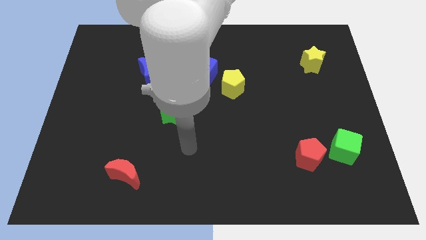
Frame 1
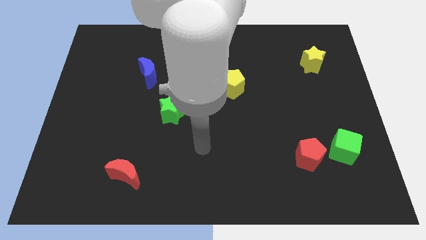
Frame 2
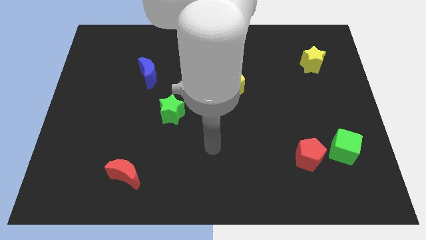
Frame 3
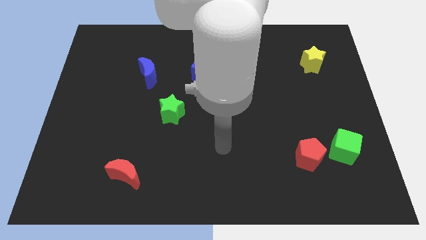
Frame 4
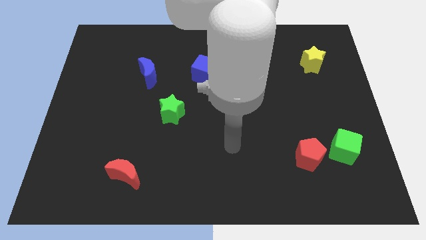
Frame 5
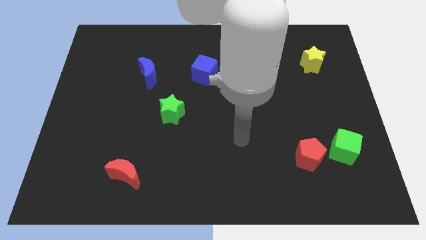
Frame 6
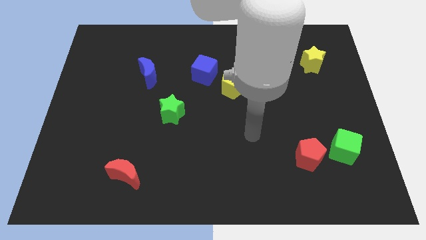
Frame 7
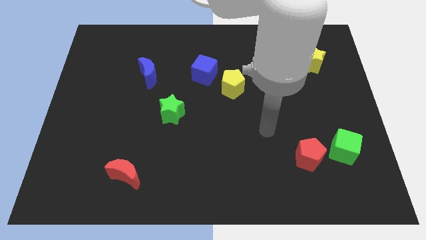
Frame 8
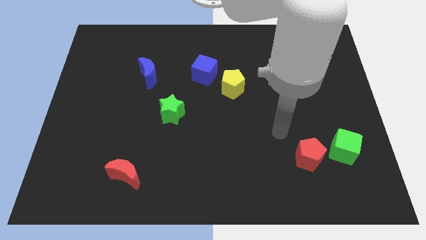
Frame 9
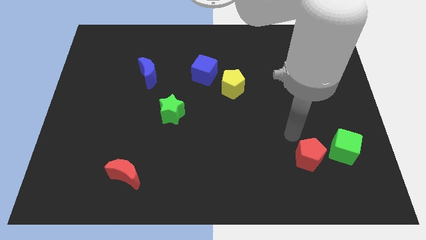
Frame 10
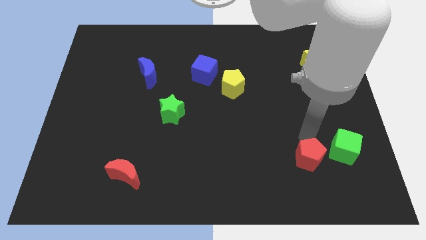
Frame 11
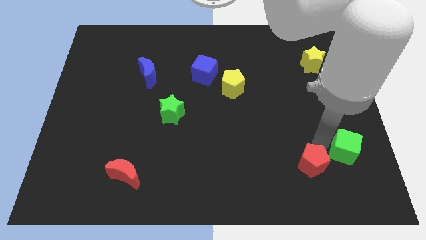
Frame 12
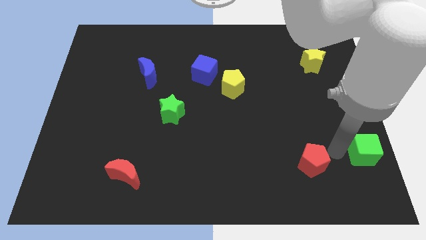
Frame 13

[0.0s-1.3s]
separate the red pentagon from the green cube

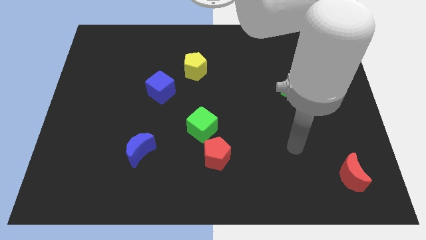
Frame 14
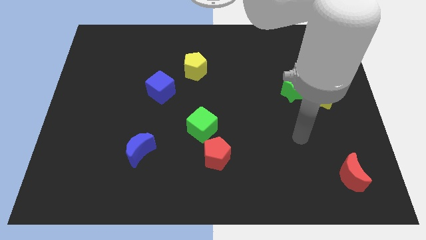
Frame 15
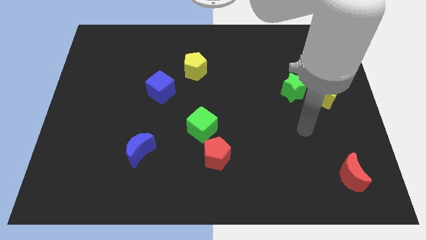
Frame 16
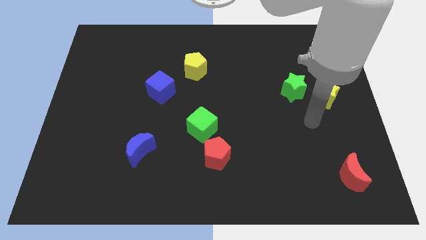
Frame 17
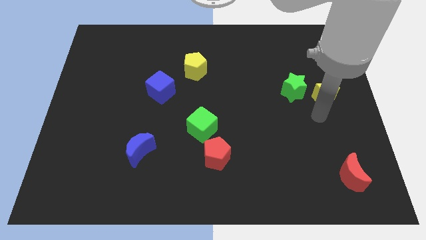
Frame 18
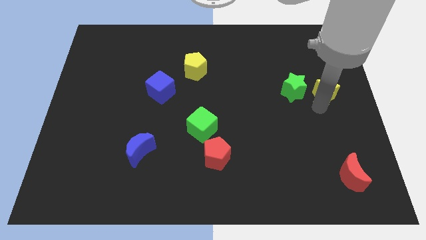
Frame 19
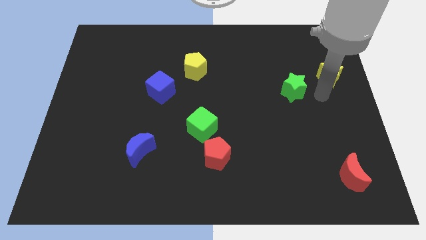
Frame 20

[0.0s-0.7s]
separate the green star from the yellow star

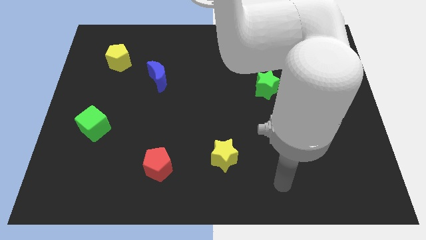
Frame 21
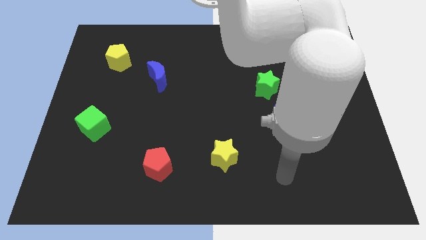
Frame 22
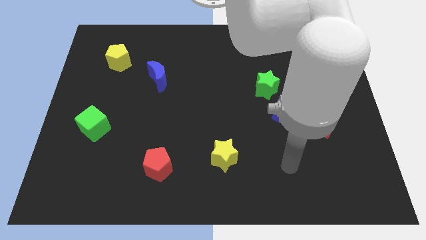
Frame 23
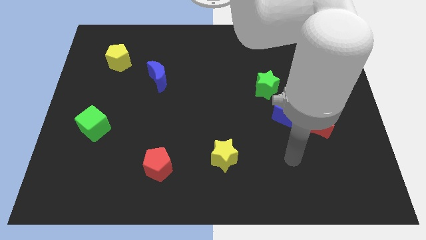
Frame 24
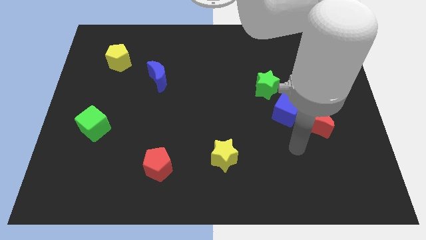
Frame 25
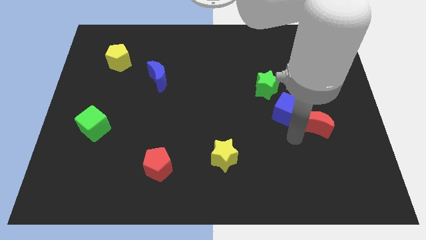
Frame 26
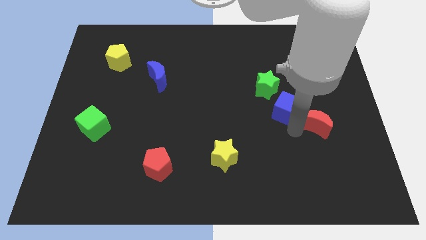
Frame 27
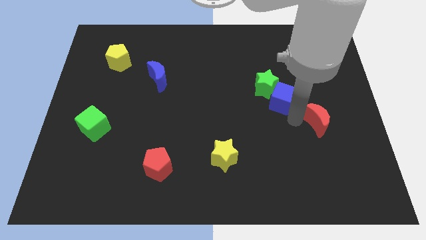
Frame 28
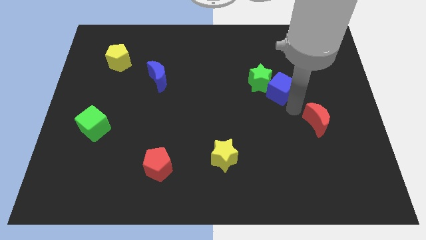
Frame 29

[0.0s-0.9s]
move the red moon away from the blue cube

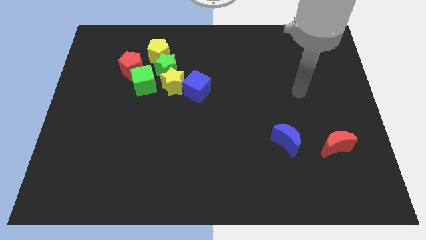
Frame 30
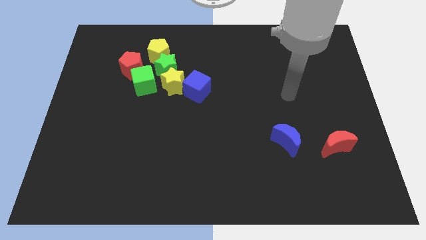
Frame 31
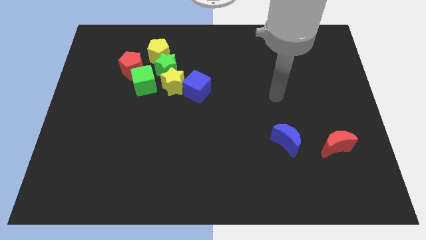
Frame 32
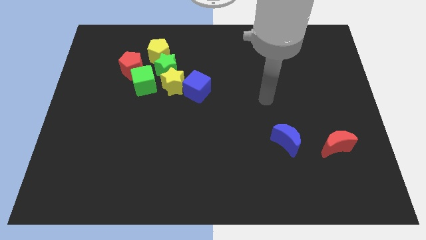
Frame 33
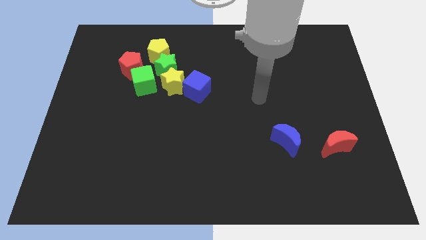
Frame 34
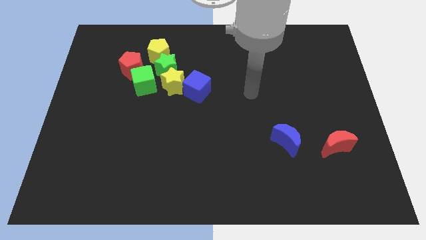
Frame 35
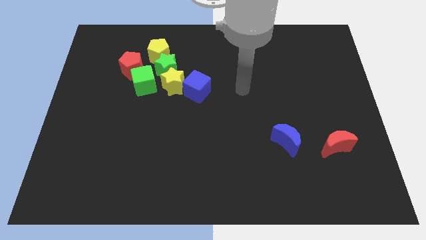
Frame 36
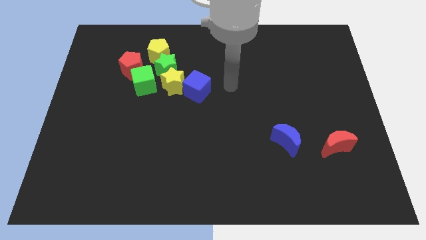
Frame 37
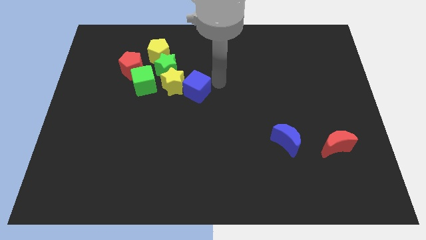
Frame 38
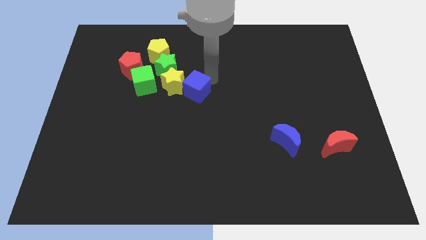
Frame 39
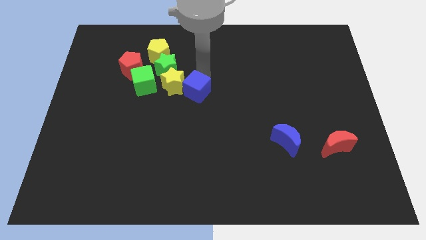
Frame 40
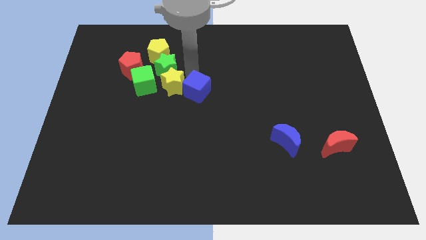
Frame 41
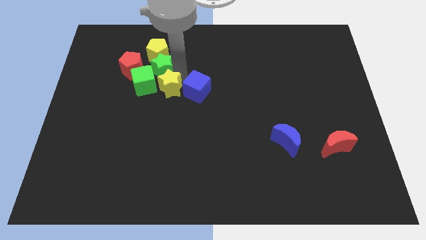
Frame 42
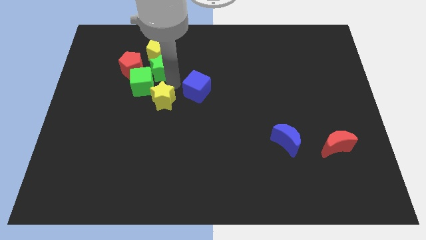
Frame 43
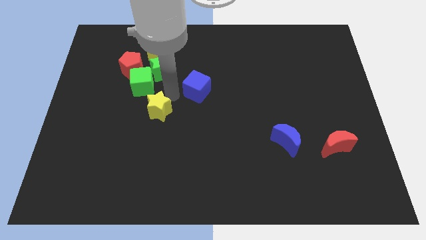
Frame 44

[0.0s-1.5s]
pull the blue cube apart from the yellow star

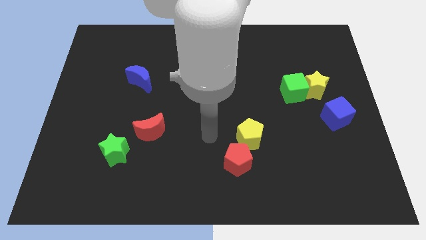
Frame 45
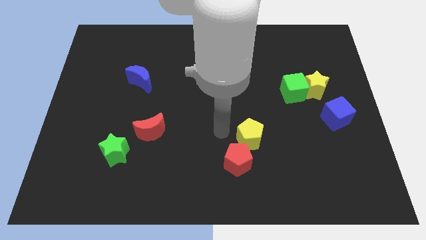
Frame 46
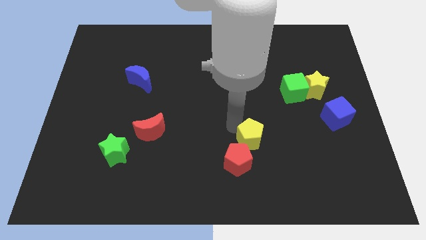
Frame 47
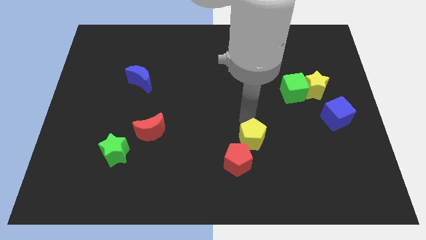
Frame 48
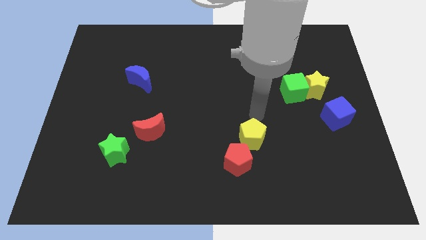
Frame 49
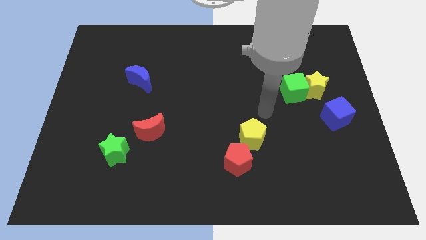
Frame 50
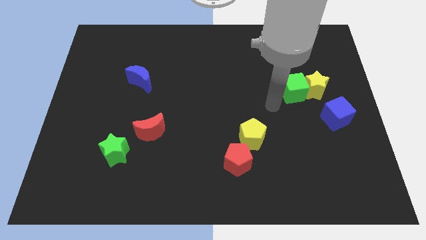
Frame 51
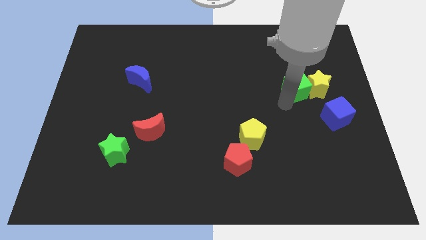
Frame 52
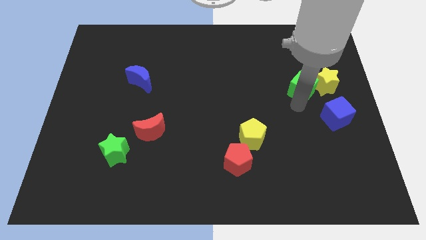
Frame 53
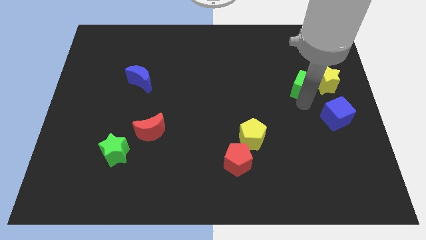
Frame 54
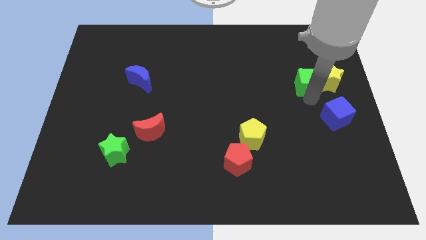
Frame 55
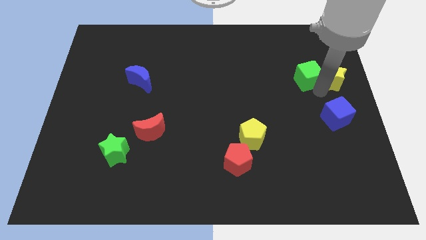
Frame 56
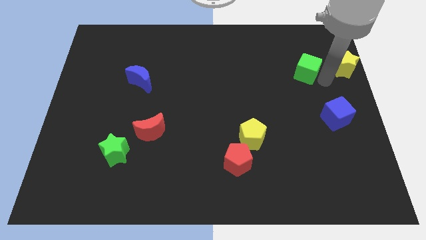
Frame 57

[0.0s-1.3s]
move the green cube away from the yellow star

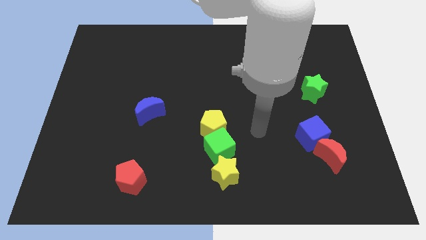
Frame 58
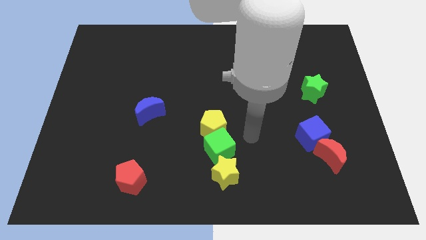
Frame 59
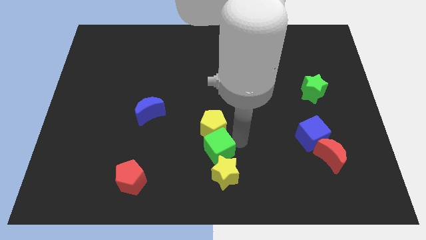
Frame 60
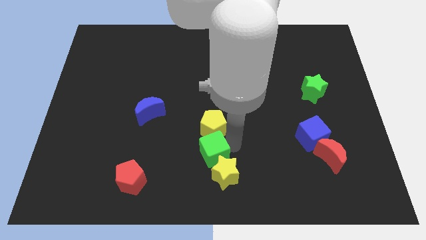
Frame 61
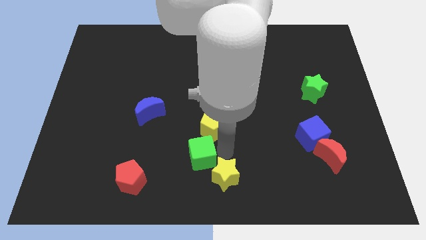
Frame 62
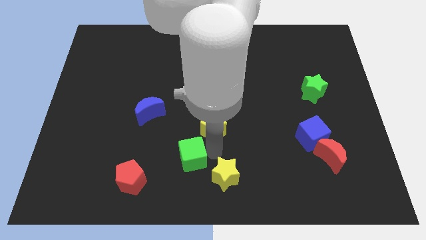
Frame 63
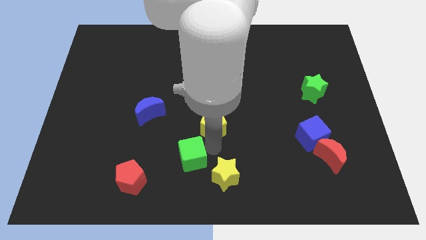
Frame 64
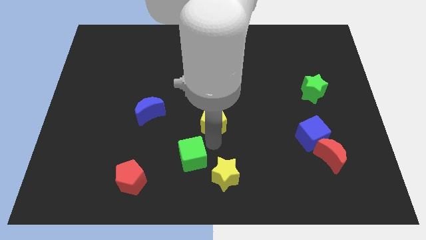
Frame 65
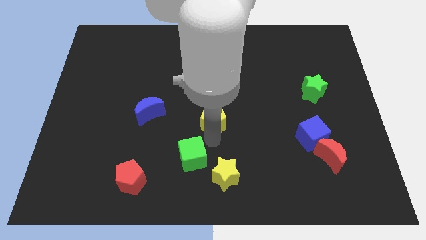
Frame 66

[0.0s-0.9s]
pull the yellow pentagon apart from the green cube

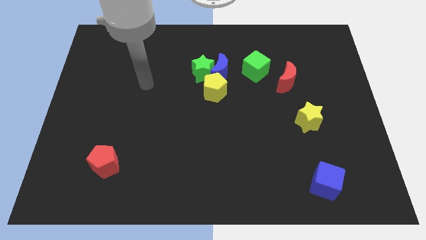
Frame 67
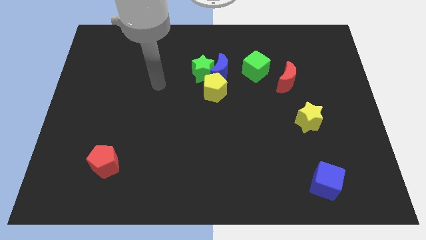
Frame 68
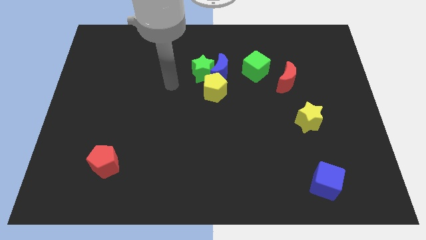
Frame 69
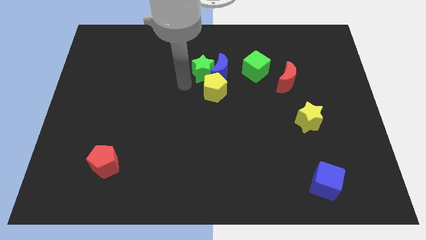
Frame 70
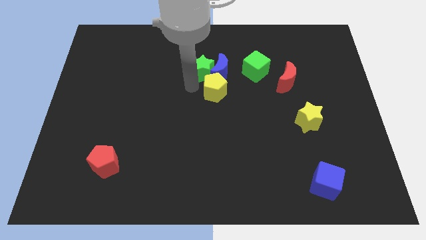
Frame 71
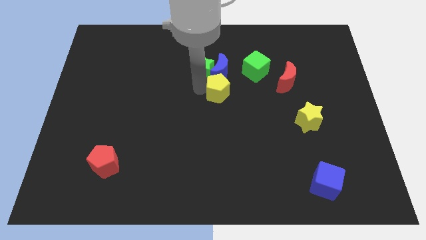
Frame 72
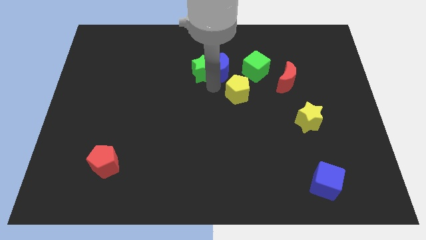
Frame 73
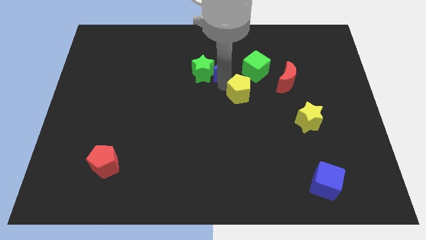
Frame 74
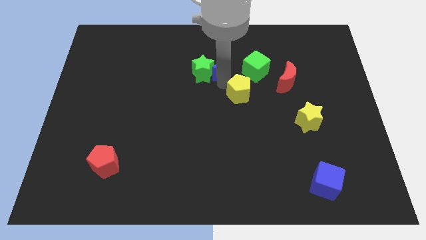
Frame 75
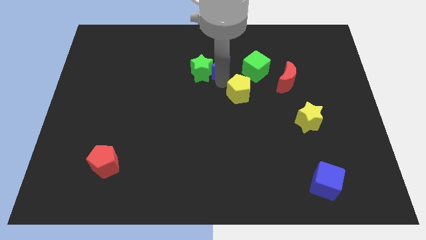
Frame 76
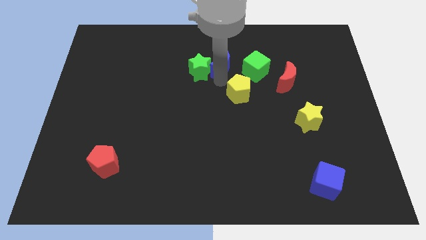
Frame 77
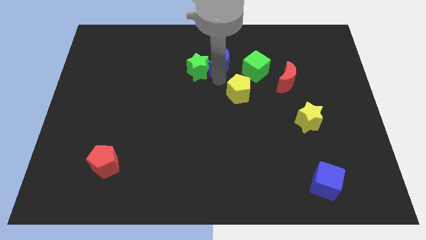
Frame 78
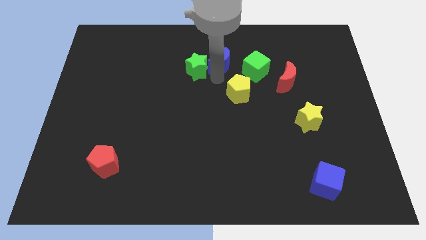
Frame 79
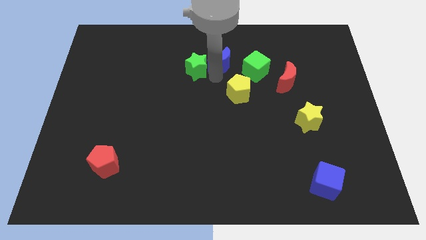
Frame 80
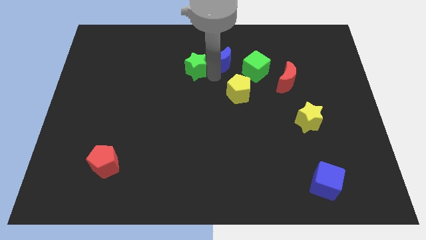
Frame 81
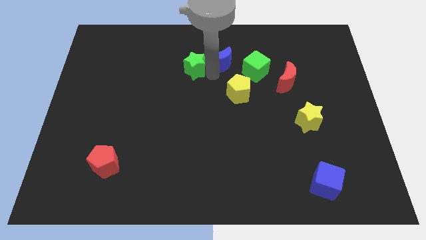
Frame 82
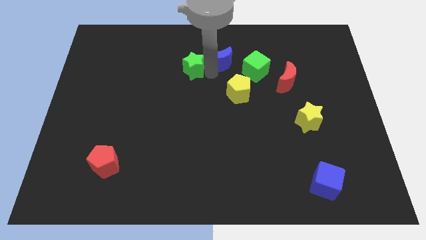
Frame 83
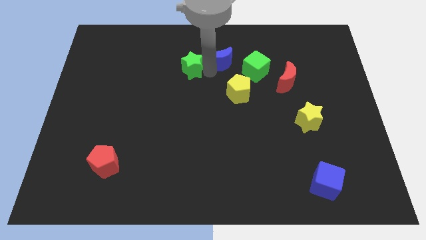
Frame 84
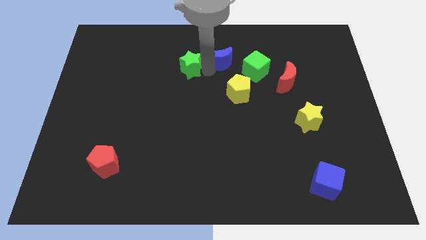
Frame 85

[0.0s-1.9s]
pull the green star apart from the blue moon and yellow pentagon

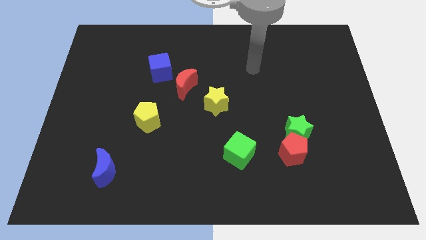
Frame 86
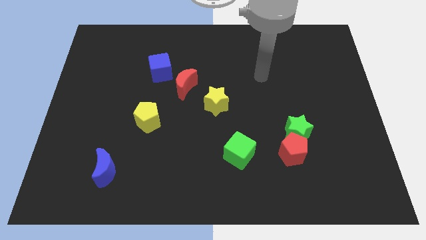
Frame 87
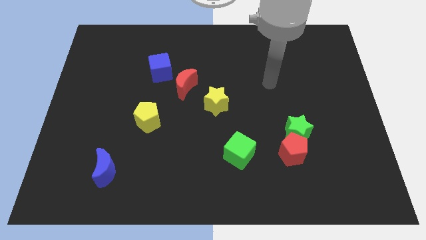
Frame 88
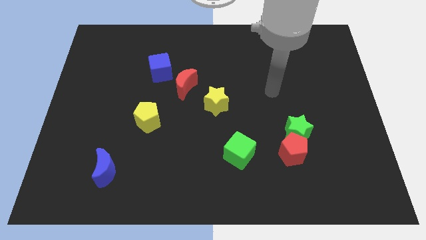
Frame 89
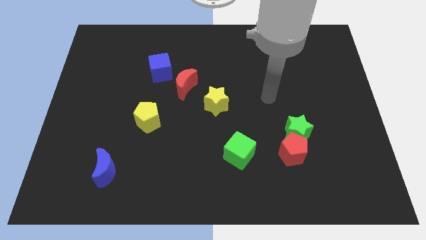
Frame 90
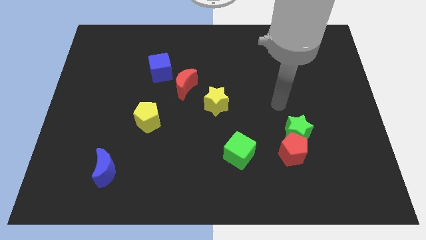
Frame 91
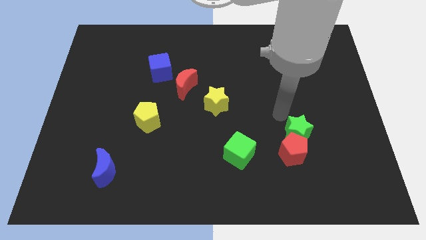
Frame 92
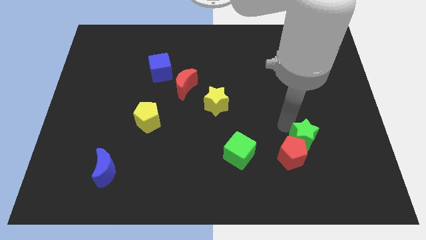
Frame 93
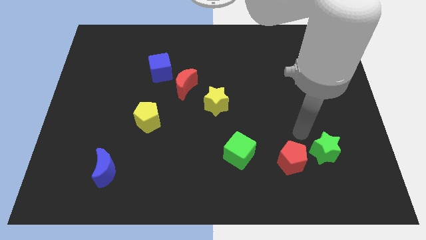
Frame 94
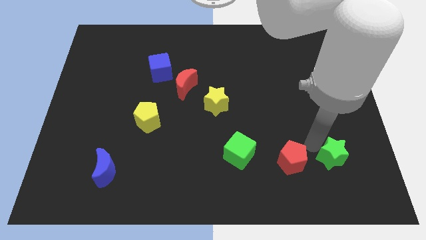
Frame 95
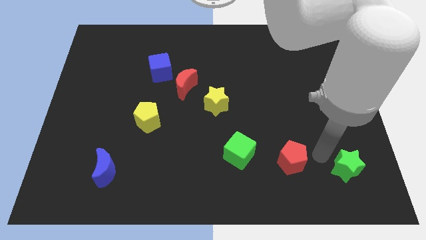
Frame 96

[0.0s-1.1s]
separate the red pentagon from the green star
